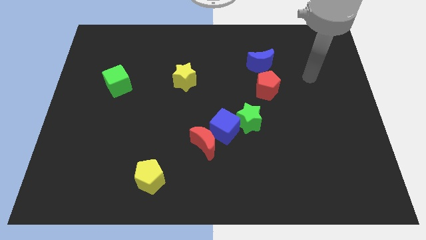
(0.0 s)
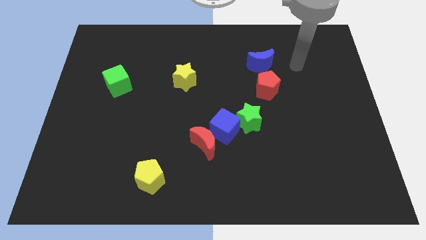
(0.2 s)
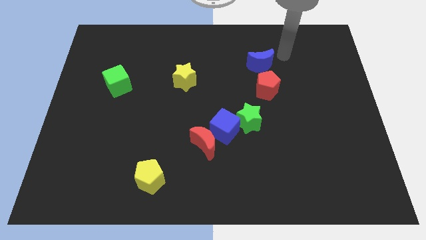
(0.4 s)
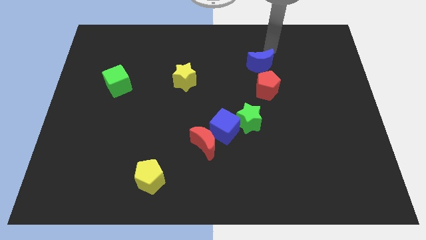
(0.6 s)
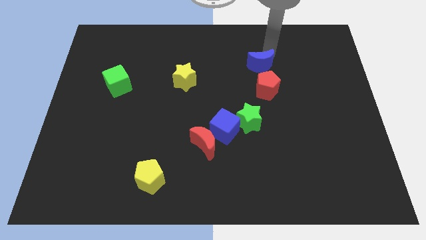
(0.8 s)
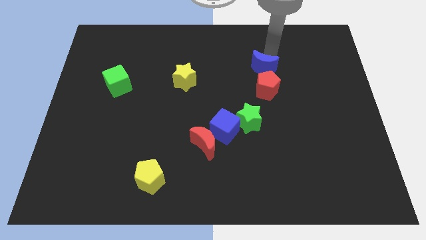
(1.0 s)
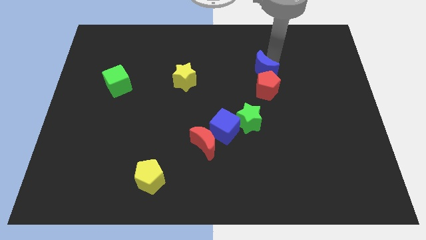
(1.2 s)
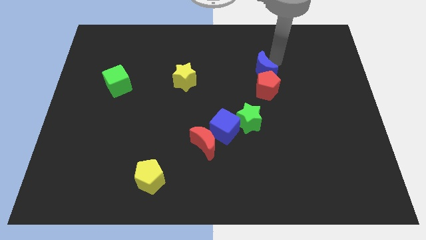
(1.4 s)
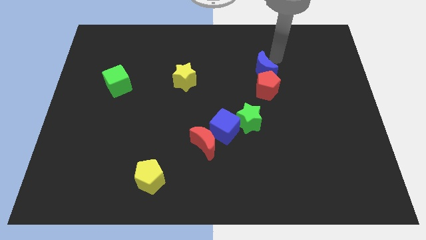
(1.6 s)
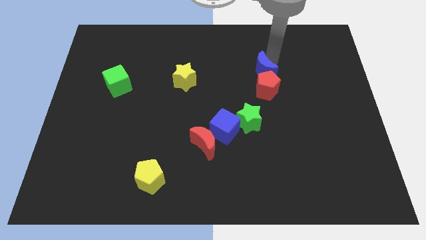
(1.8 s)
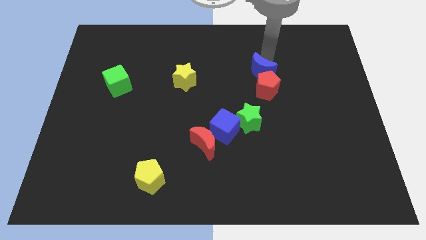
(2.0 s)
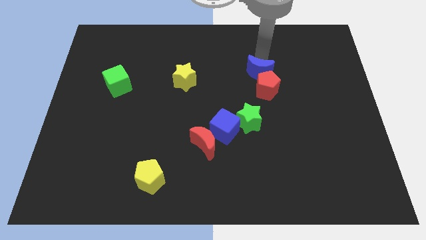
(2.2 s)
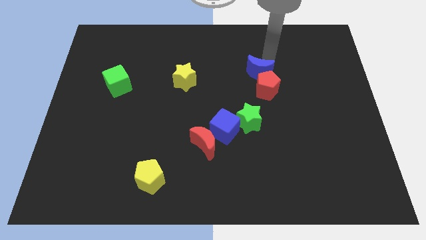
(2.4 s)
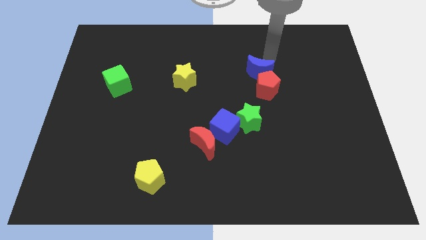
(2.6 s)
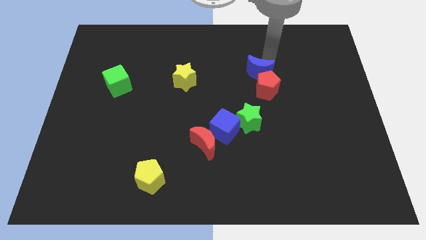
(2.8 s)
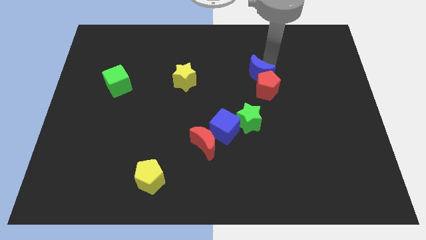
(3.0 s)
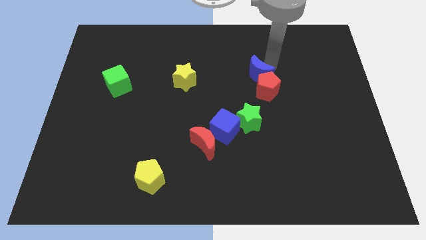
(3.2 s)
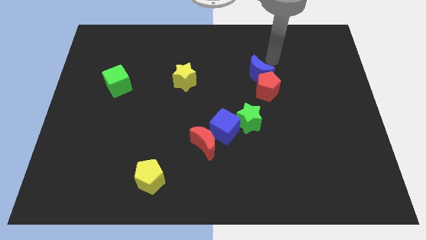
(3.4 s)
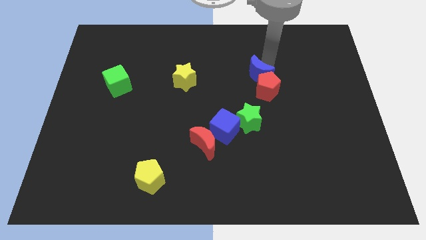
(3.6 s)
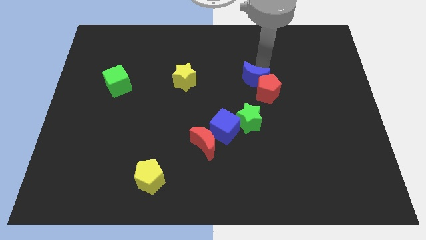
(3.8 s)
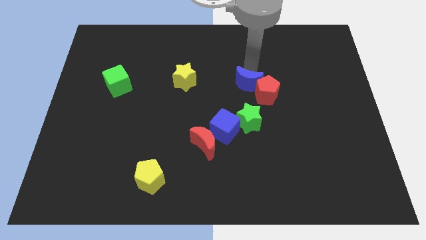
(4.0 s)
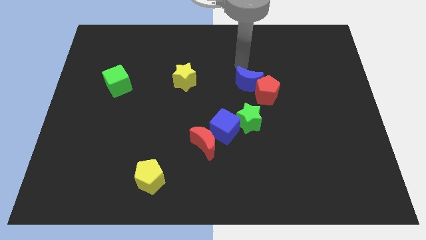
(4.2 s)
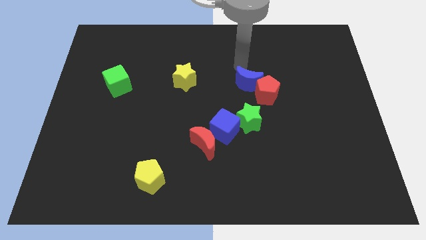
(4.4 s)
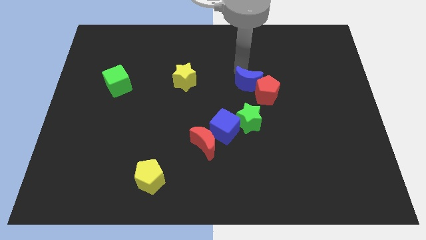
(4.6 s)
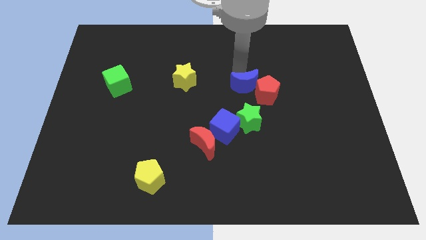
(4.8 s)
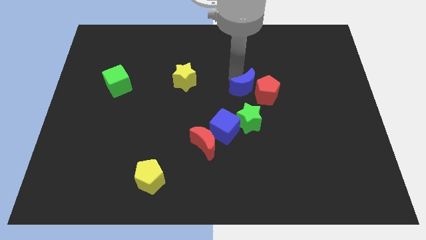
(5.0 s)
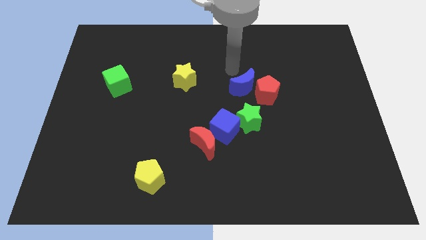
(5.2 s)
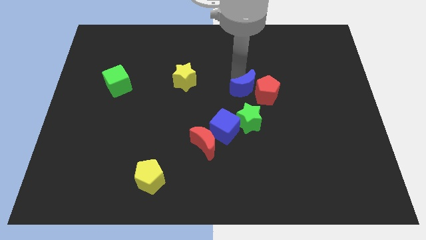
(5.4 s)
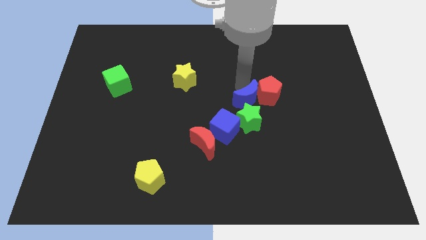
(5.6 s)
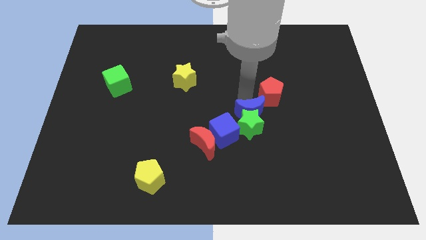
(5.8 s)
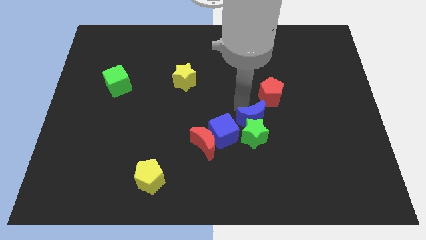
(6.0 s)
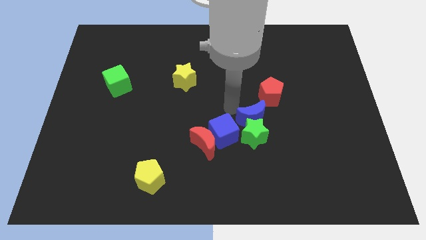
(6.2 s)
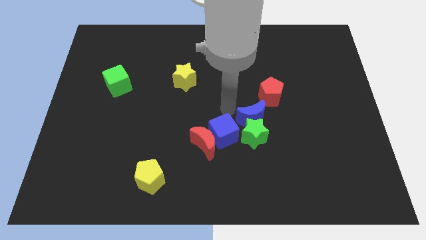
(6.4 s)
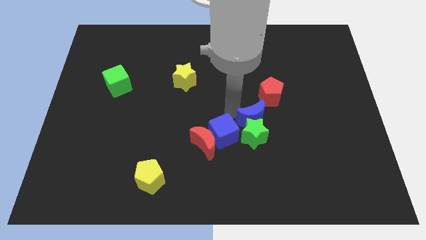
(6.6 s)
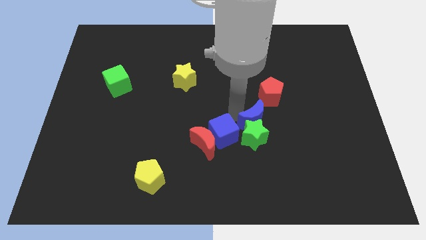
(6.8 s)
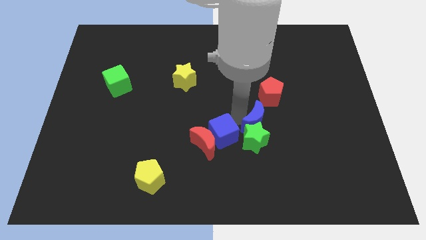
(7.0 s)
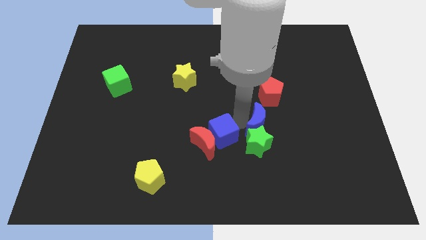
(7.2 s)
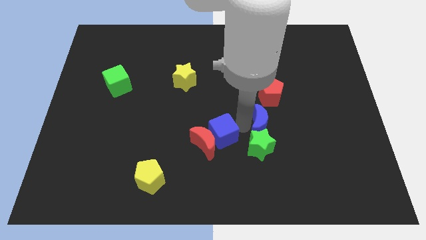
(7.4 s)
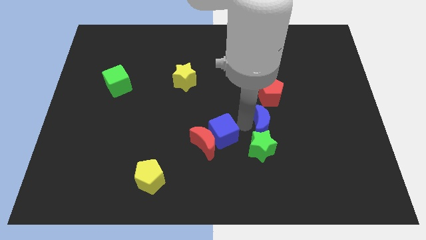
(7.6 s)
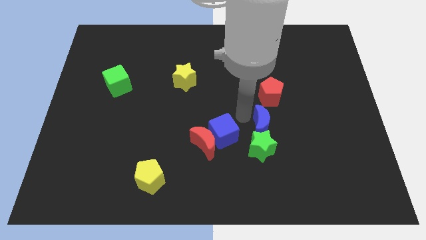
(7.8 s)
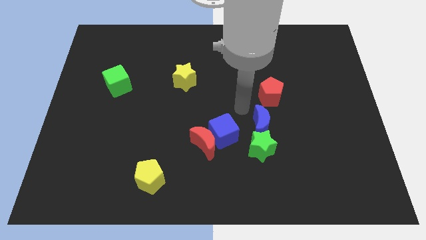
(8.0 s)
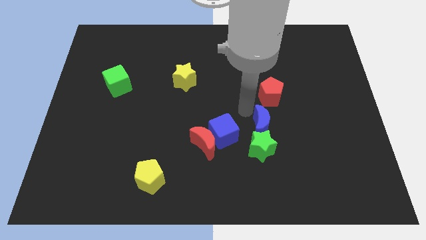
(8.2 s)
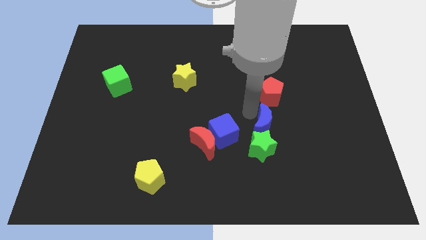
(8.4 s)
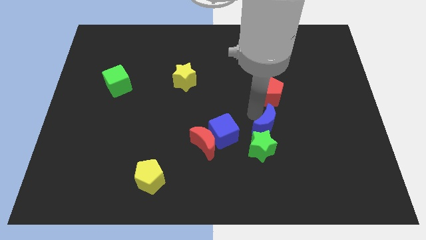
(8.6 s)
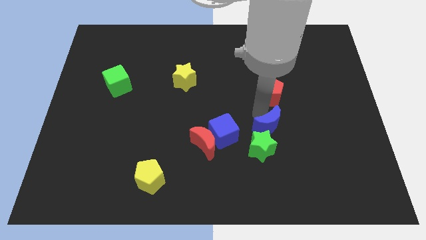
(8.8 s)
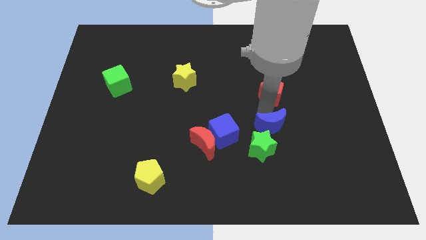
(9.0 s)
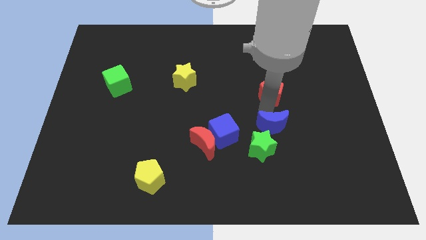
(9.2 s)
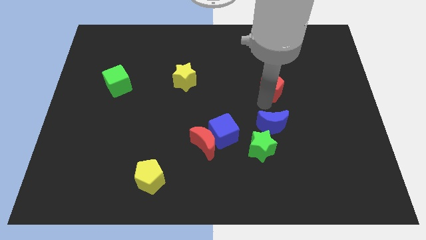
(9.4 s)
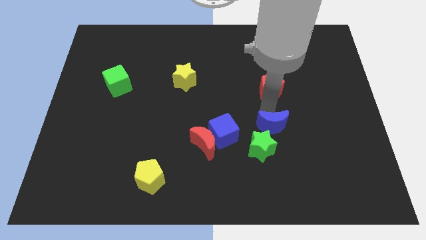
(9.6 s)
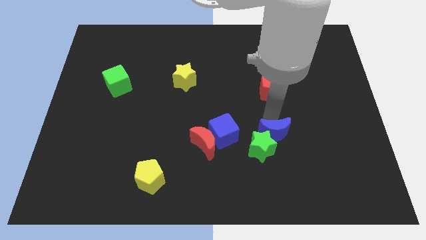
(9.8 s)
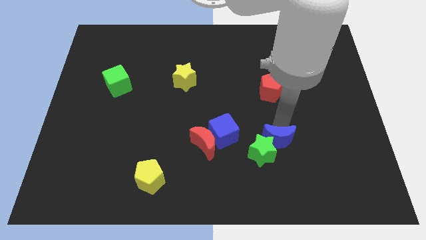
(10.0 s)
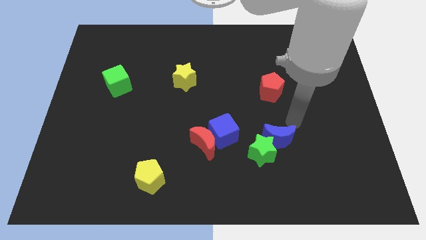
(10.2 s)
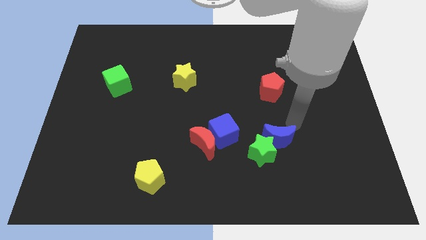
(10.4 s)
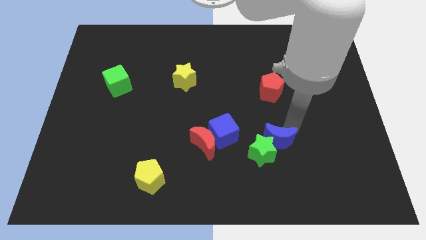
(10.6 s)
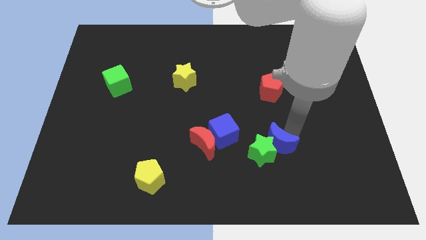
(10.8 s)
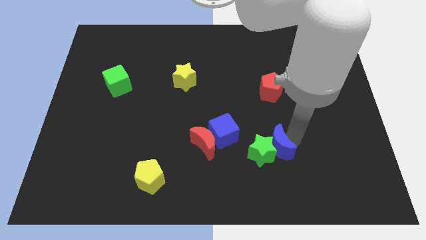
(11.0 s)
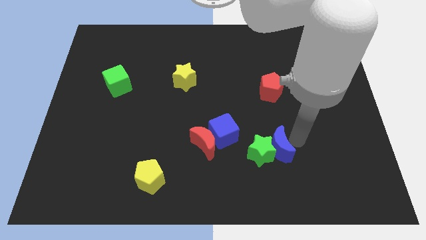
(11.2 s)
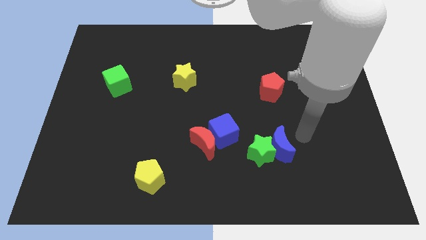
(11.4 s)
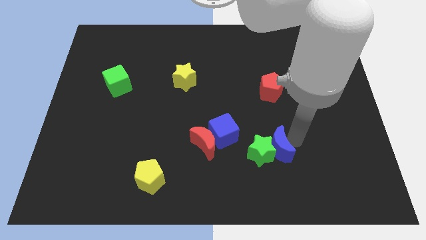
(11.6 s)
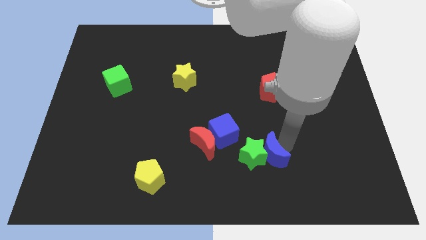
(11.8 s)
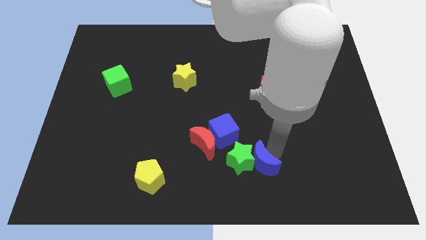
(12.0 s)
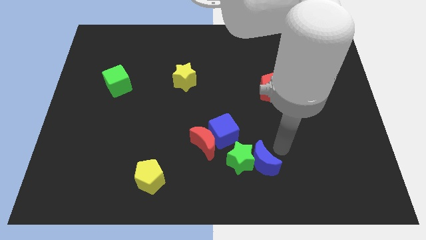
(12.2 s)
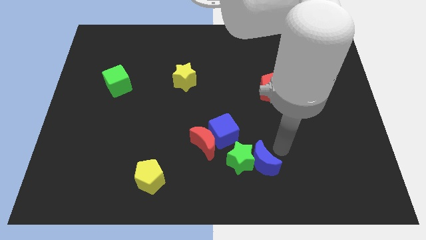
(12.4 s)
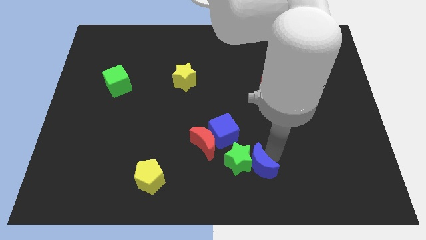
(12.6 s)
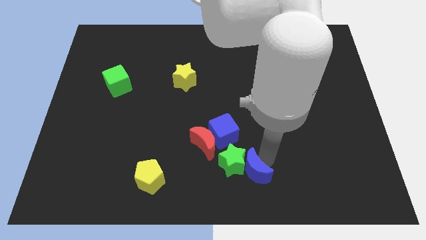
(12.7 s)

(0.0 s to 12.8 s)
push the blue moon to the bottom side
